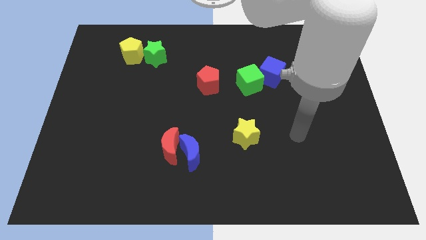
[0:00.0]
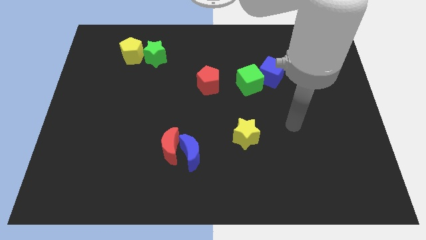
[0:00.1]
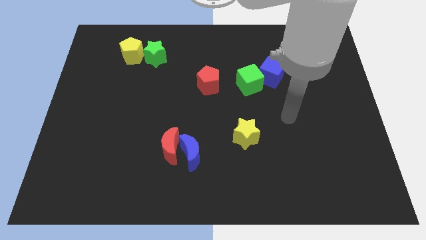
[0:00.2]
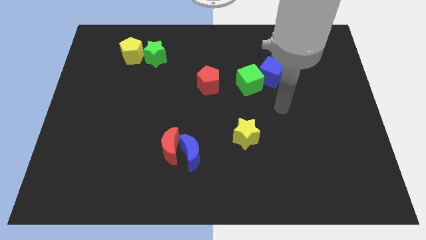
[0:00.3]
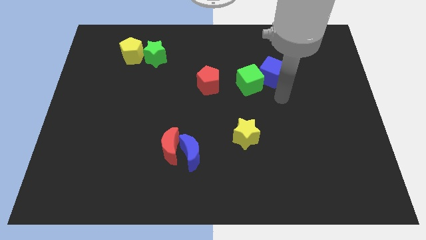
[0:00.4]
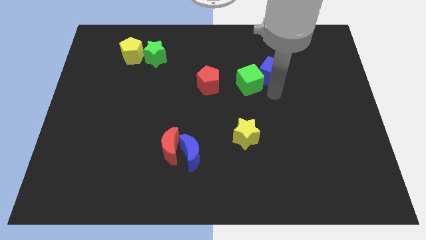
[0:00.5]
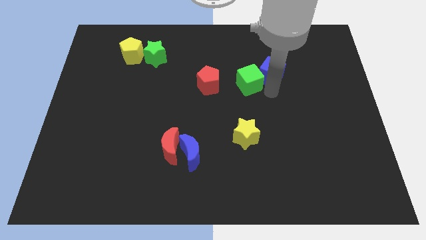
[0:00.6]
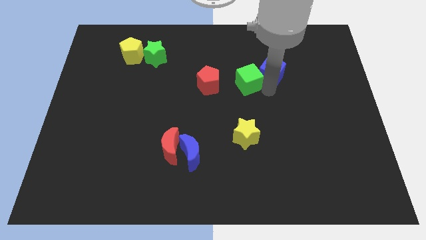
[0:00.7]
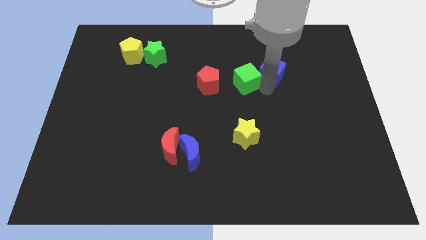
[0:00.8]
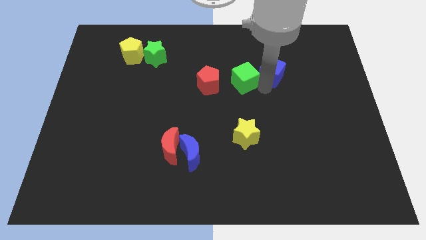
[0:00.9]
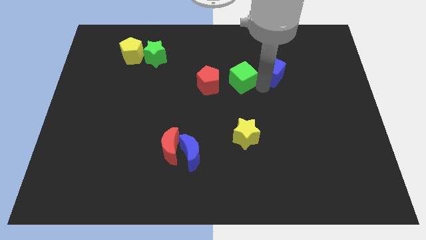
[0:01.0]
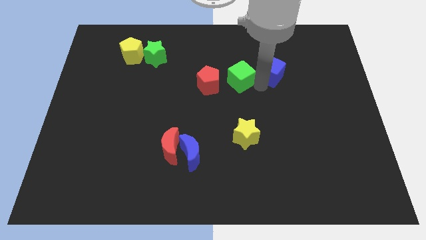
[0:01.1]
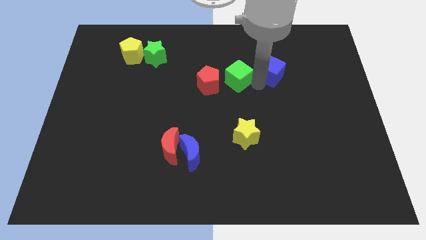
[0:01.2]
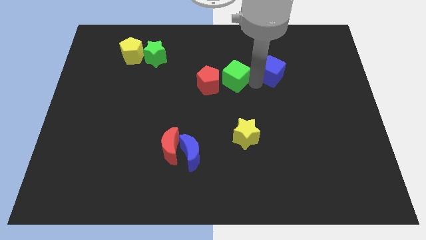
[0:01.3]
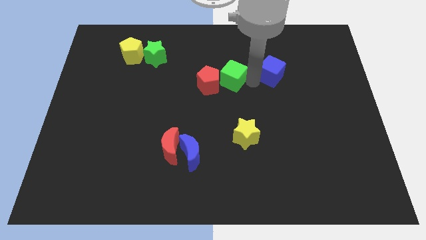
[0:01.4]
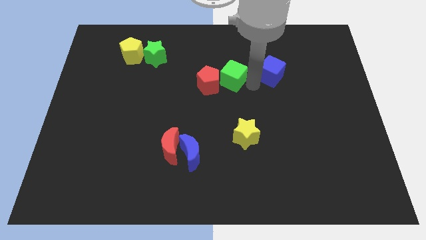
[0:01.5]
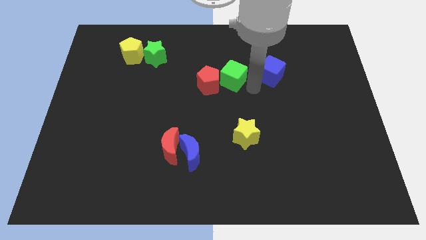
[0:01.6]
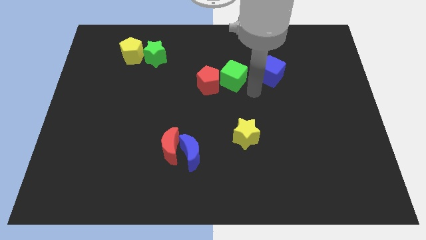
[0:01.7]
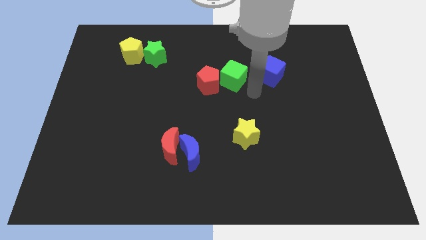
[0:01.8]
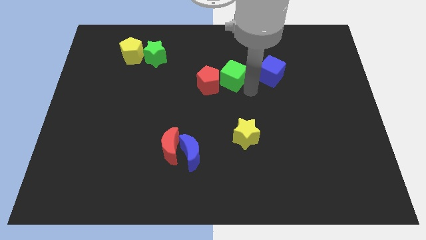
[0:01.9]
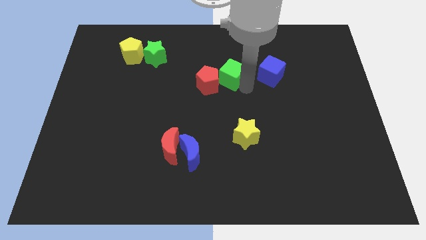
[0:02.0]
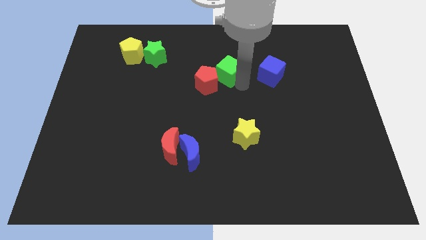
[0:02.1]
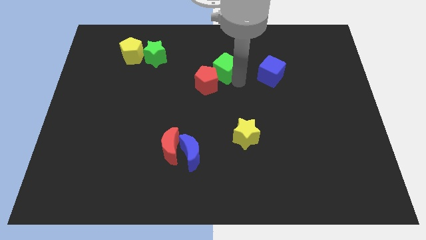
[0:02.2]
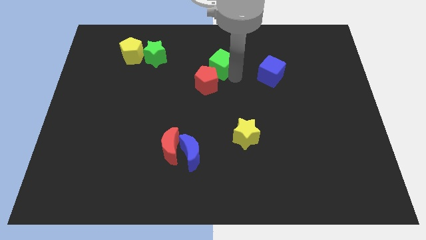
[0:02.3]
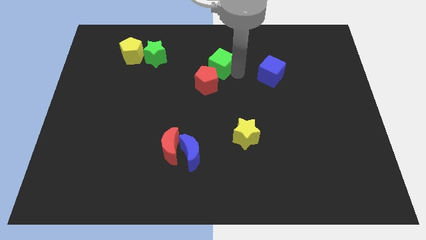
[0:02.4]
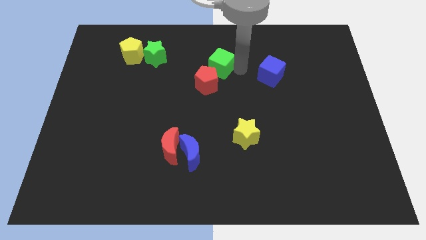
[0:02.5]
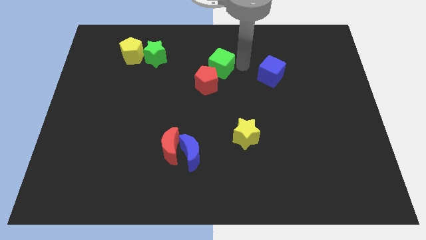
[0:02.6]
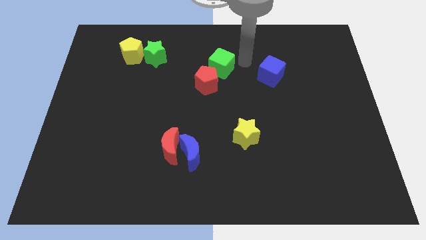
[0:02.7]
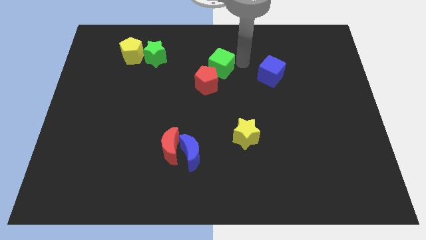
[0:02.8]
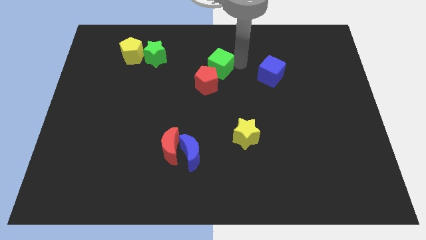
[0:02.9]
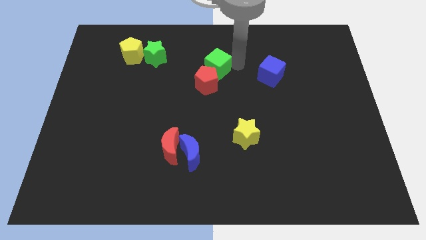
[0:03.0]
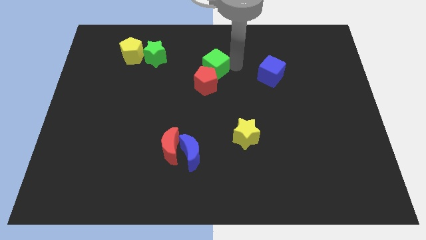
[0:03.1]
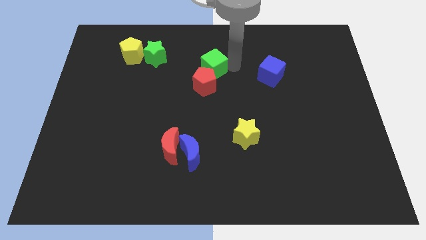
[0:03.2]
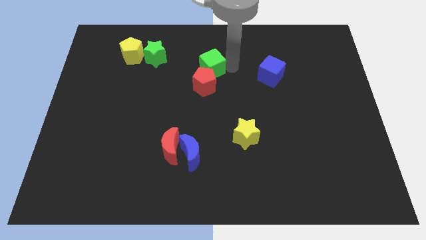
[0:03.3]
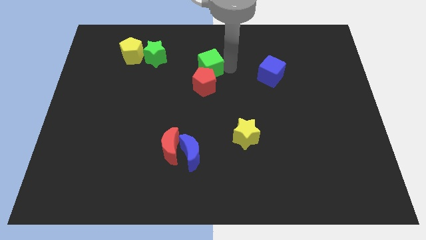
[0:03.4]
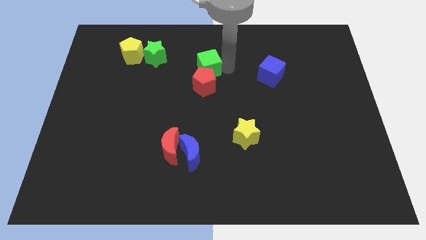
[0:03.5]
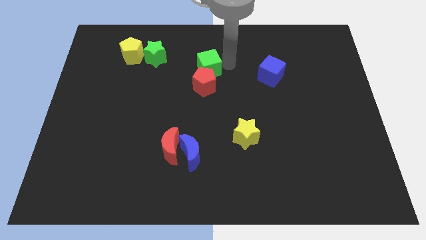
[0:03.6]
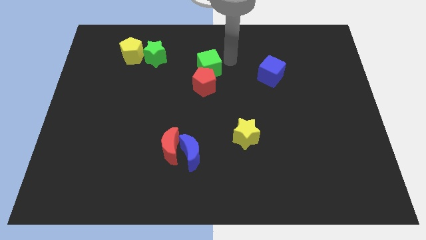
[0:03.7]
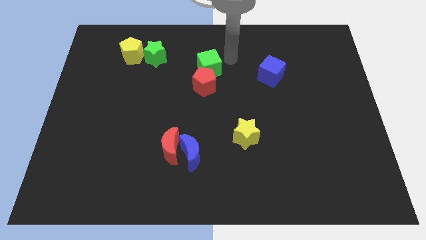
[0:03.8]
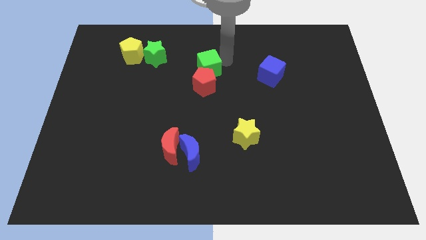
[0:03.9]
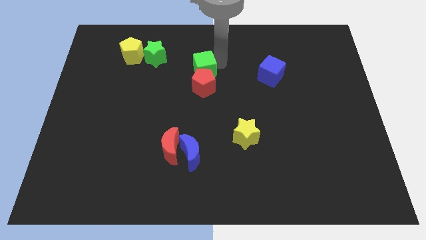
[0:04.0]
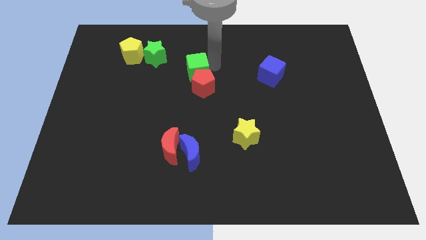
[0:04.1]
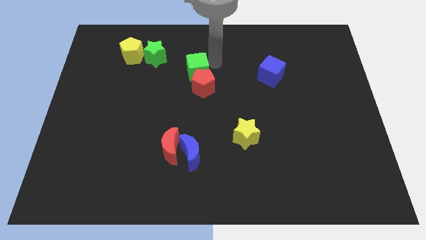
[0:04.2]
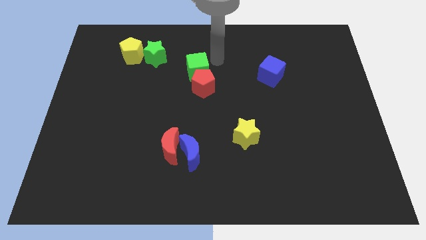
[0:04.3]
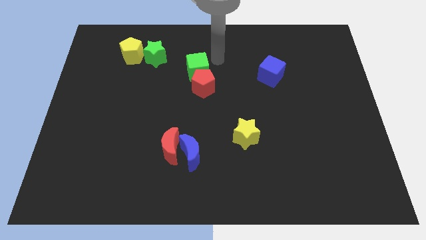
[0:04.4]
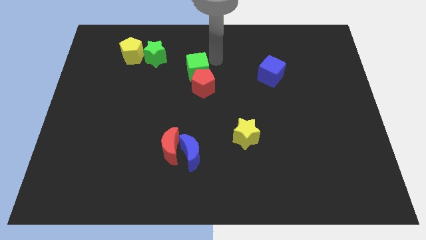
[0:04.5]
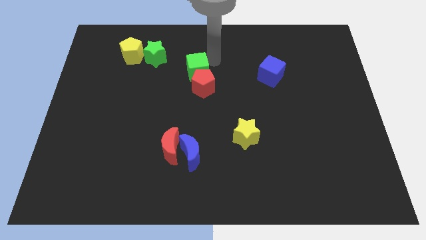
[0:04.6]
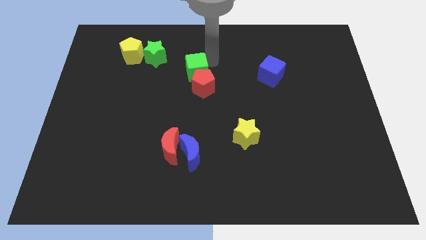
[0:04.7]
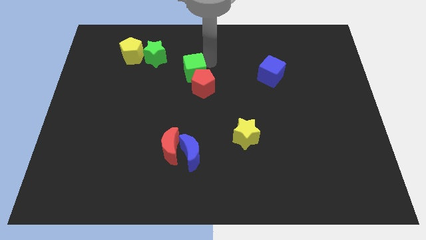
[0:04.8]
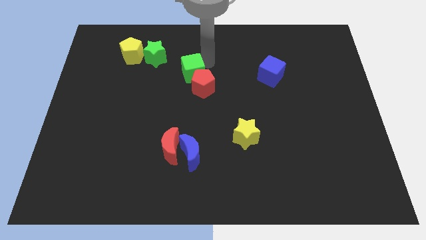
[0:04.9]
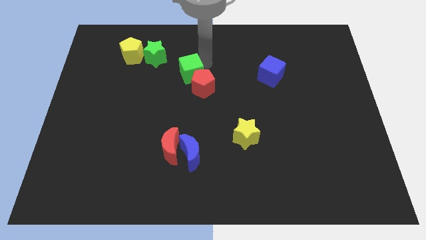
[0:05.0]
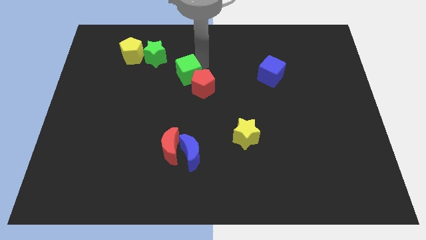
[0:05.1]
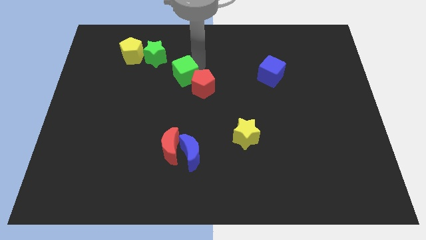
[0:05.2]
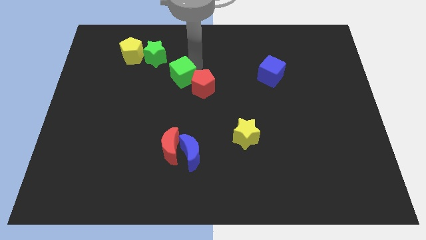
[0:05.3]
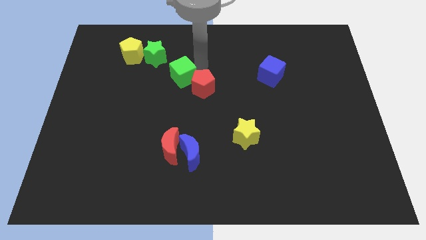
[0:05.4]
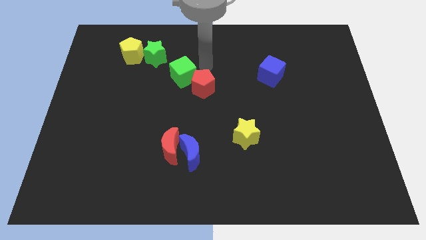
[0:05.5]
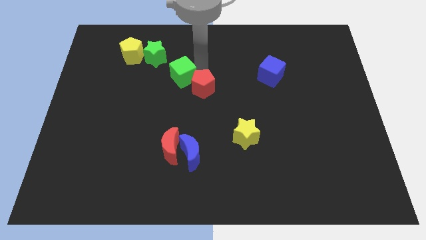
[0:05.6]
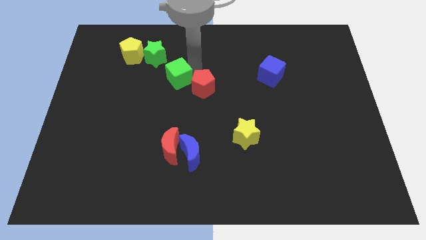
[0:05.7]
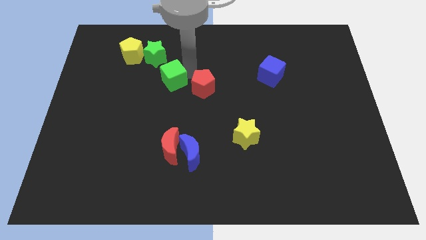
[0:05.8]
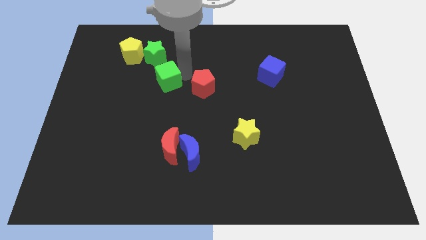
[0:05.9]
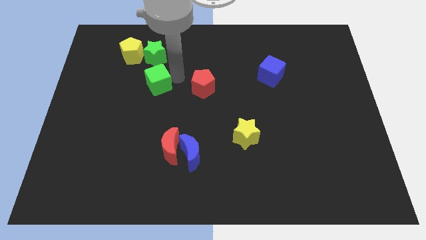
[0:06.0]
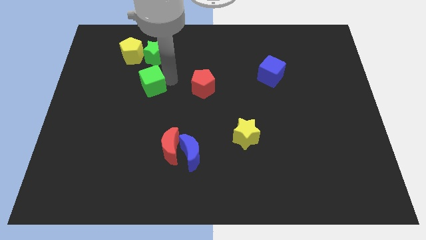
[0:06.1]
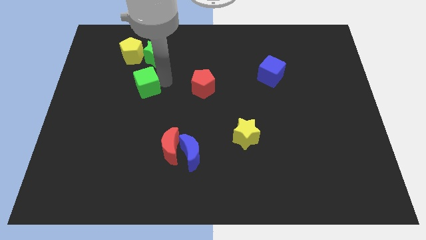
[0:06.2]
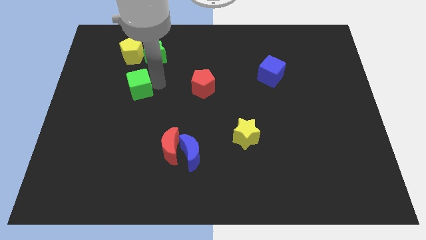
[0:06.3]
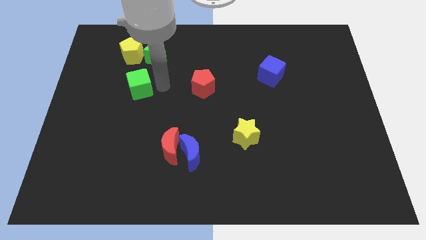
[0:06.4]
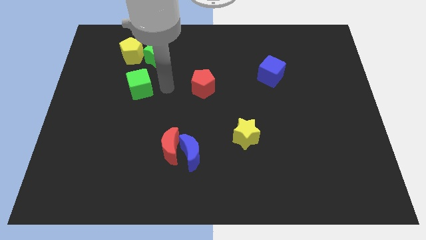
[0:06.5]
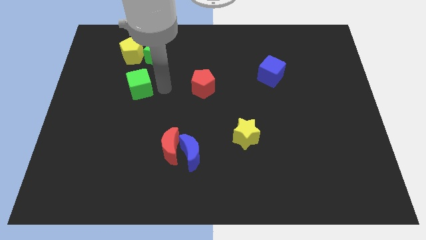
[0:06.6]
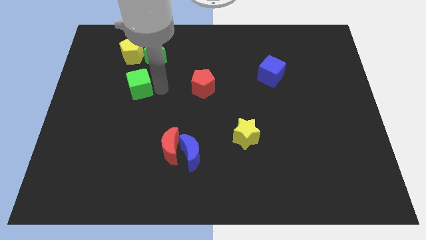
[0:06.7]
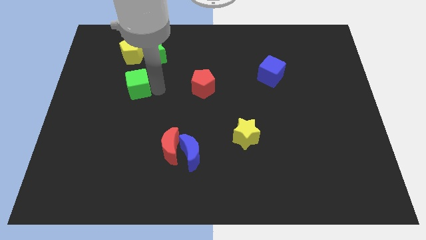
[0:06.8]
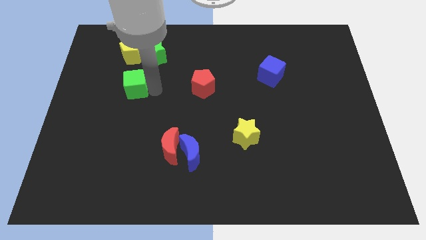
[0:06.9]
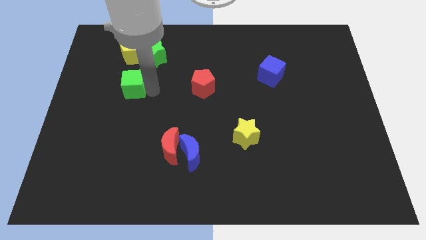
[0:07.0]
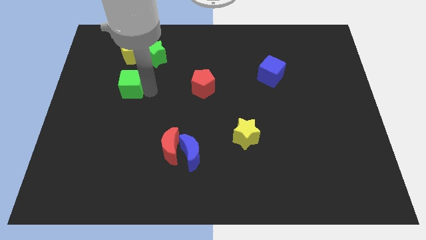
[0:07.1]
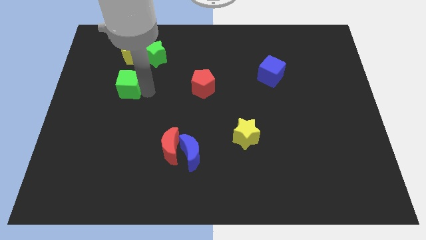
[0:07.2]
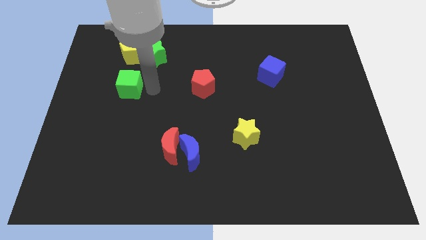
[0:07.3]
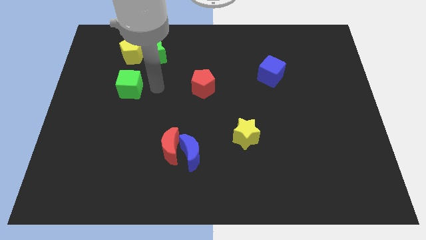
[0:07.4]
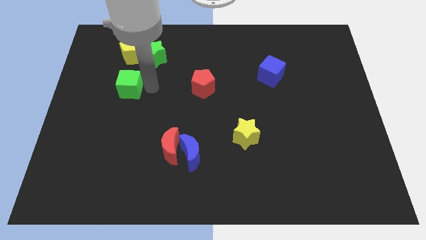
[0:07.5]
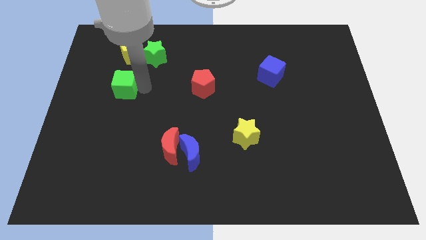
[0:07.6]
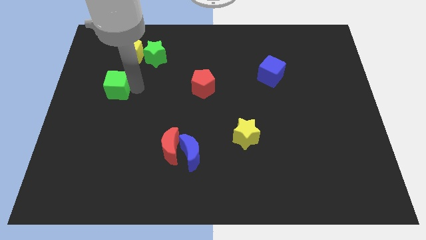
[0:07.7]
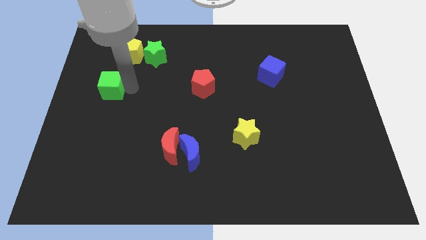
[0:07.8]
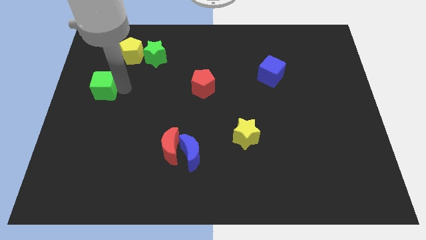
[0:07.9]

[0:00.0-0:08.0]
push the green cube to the left side of the board
